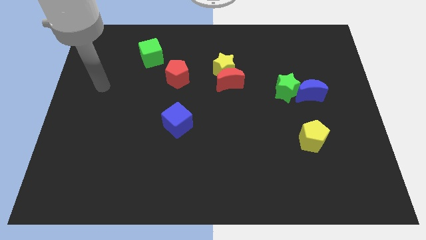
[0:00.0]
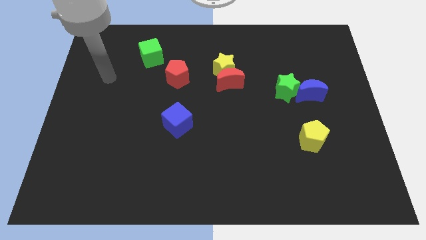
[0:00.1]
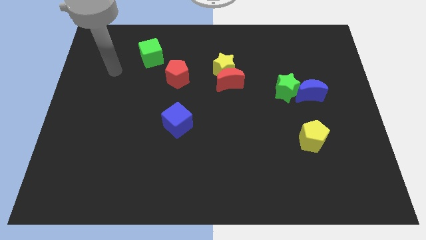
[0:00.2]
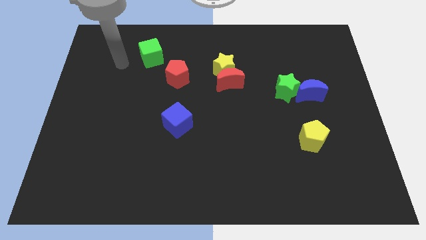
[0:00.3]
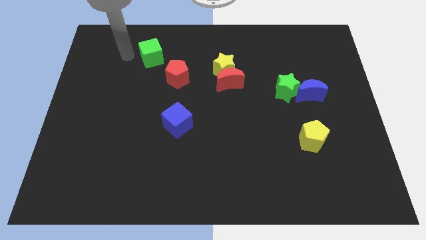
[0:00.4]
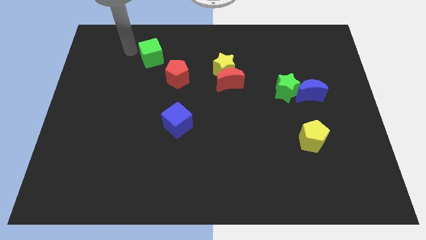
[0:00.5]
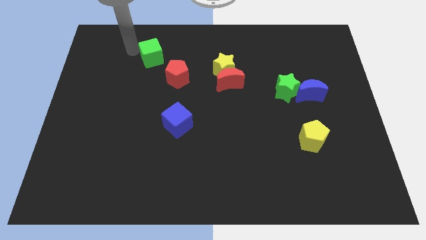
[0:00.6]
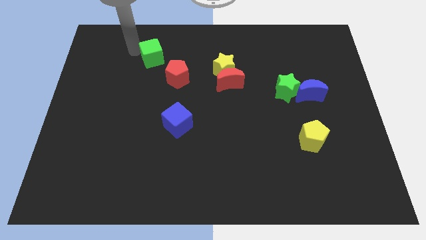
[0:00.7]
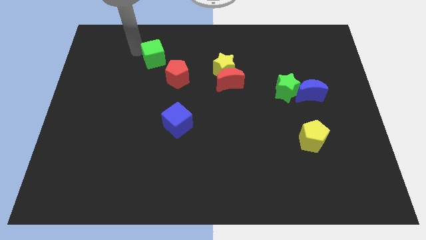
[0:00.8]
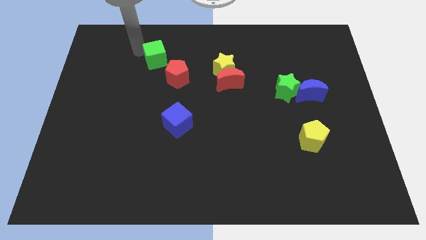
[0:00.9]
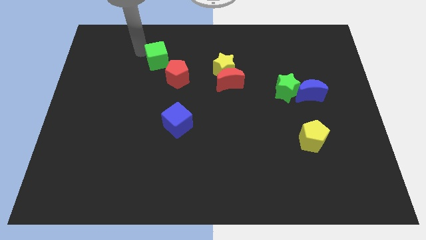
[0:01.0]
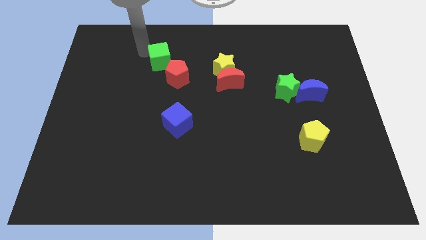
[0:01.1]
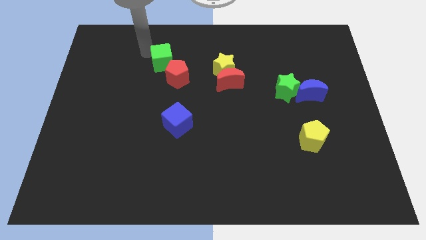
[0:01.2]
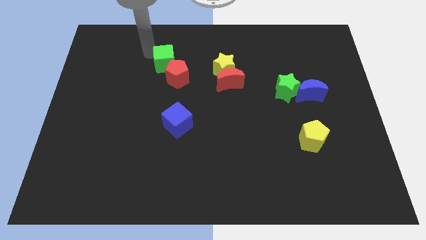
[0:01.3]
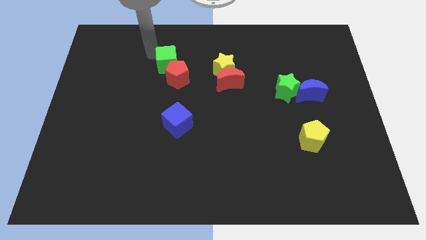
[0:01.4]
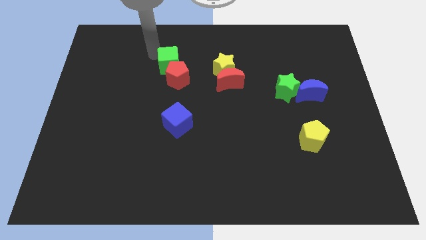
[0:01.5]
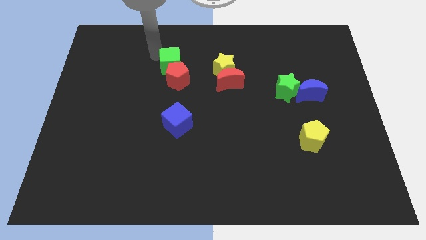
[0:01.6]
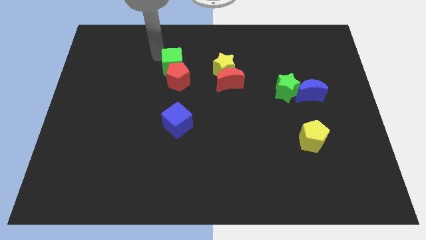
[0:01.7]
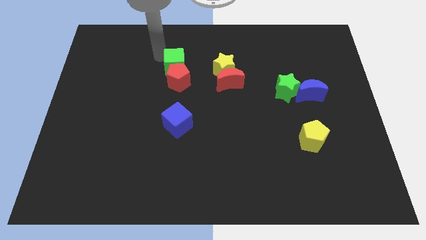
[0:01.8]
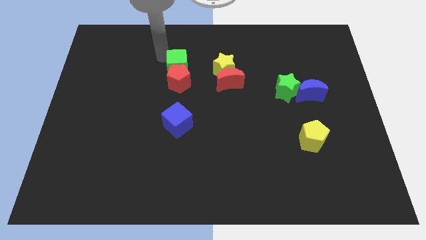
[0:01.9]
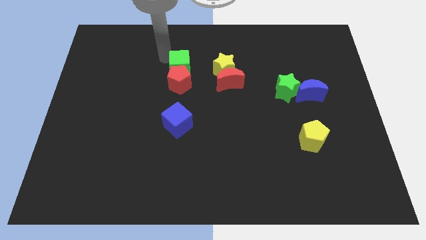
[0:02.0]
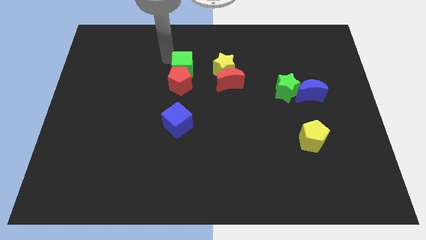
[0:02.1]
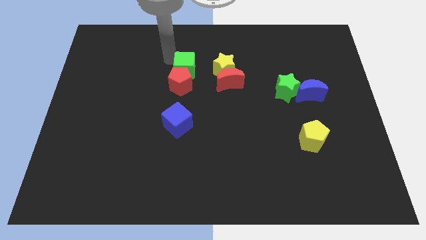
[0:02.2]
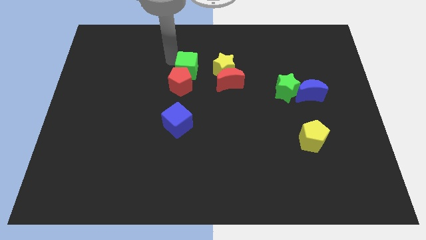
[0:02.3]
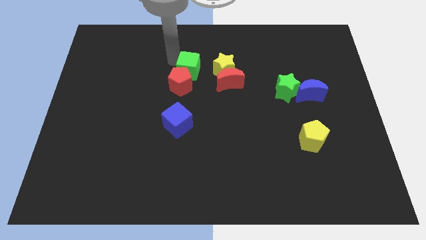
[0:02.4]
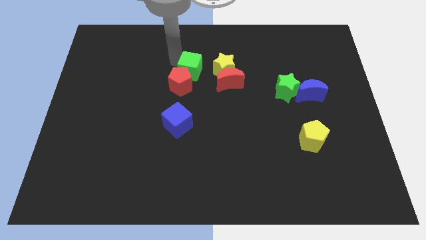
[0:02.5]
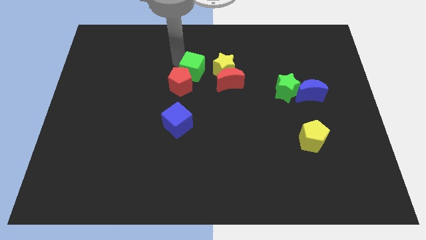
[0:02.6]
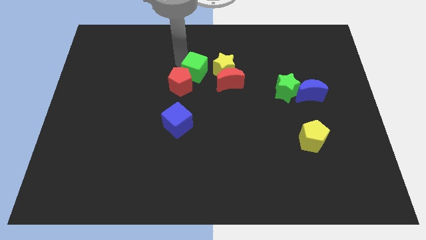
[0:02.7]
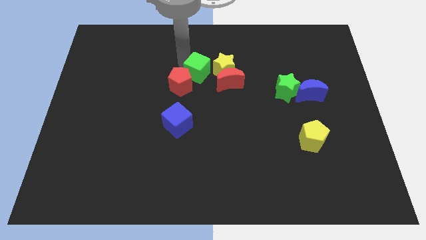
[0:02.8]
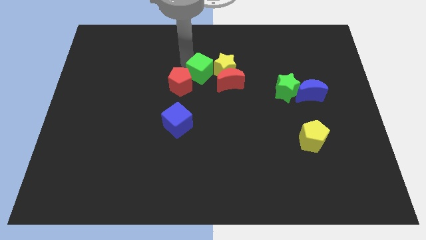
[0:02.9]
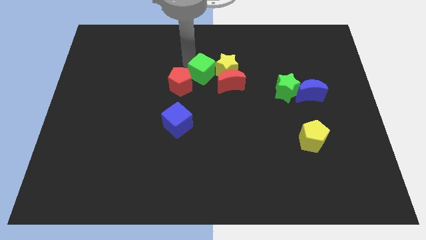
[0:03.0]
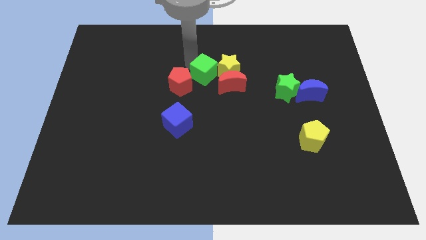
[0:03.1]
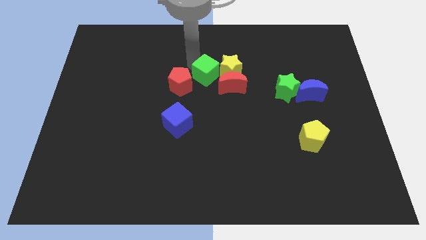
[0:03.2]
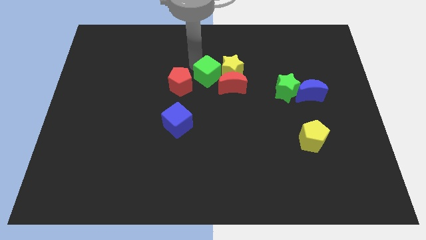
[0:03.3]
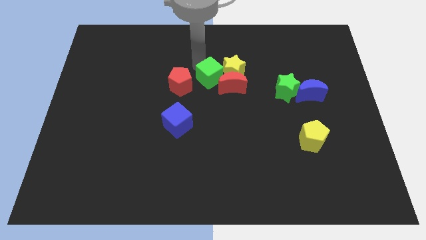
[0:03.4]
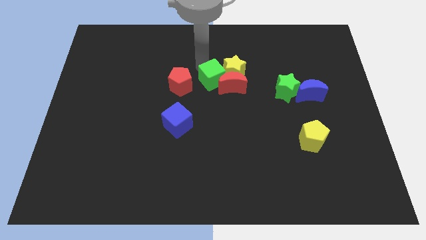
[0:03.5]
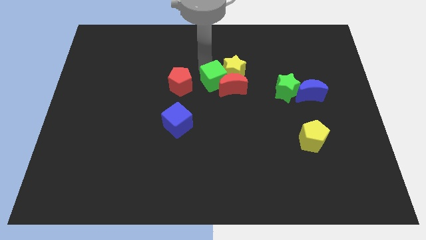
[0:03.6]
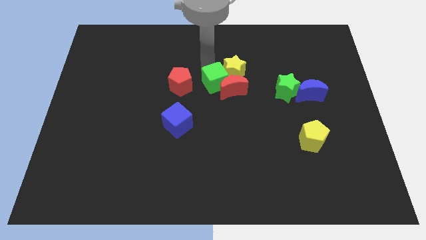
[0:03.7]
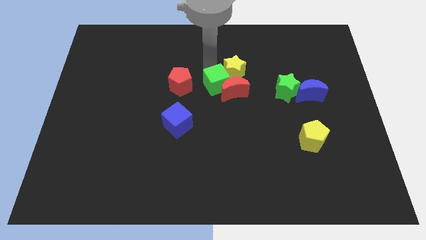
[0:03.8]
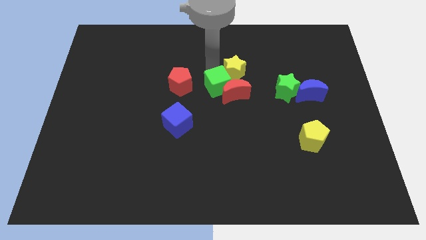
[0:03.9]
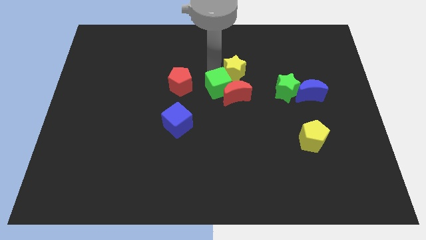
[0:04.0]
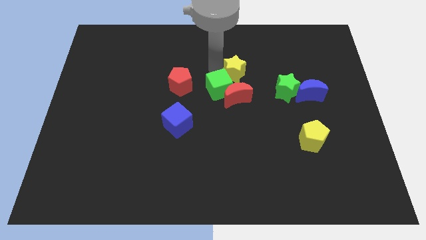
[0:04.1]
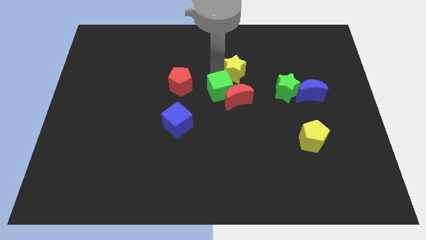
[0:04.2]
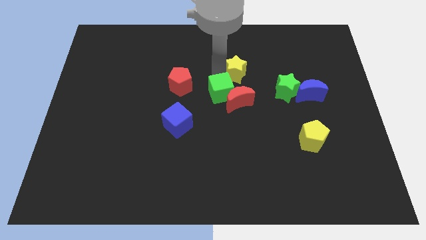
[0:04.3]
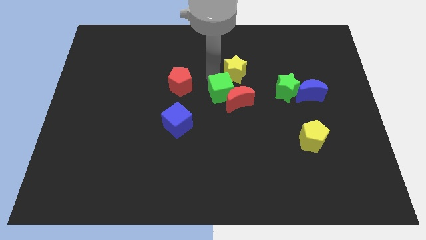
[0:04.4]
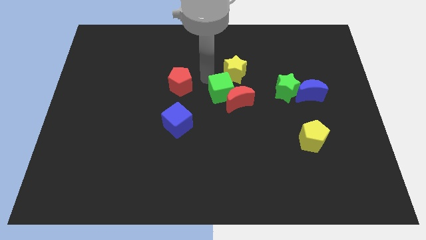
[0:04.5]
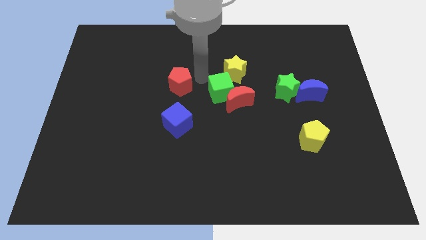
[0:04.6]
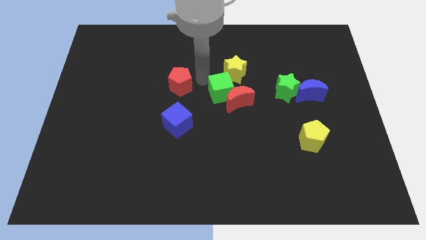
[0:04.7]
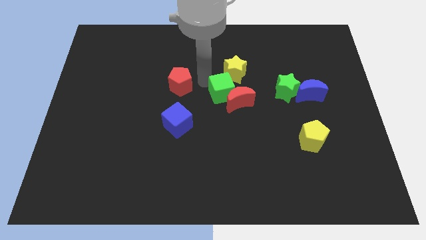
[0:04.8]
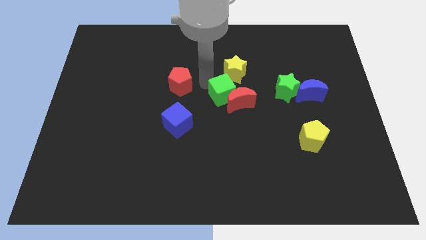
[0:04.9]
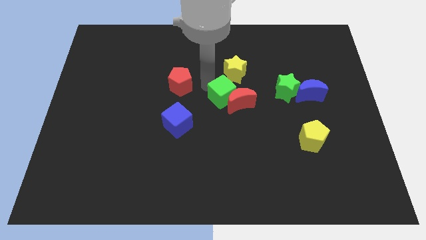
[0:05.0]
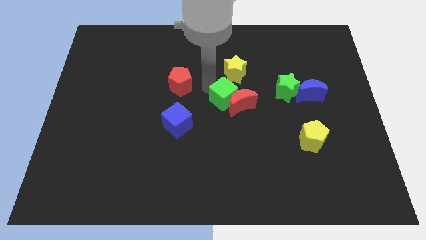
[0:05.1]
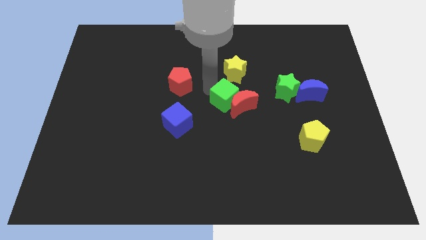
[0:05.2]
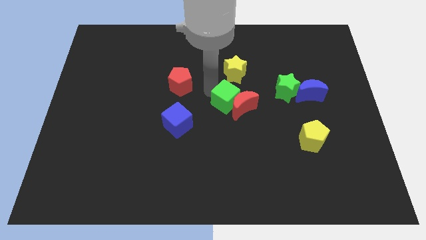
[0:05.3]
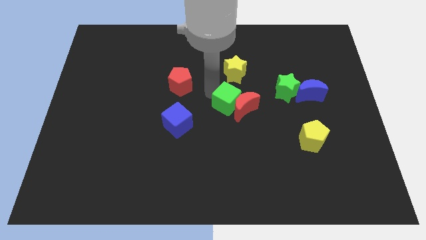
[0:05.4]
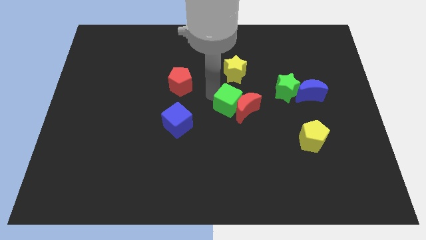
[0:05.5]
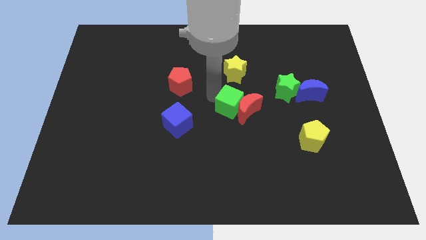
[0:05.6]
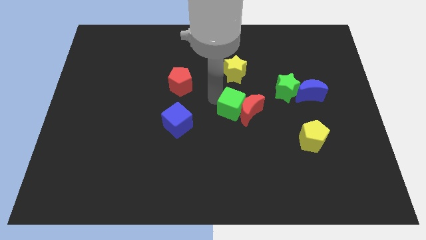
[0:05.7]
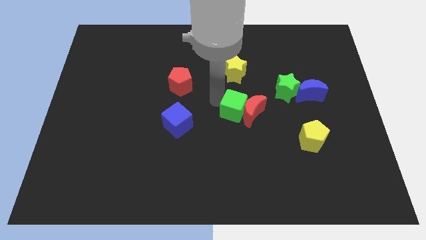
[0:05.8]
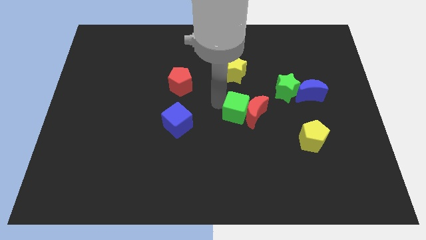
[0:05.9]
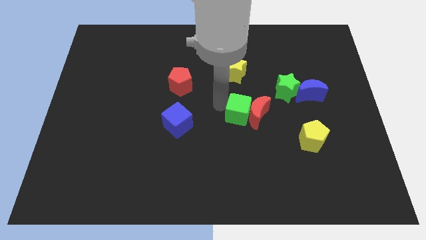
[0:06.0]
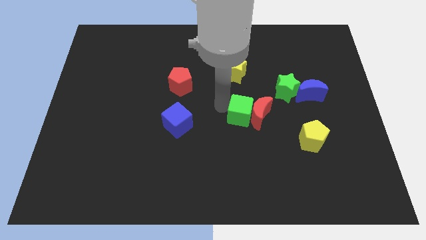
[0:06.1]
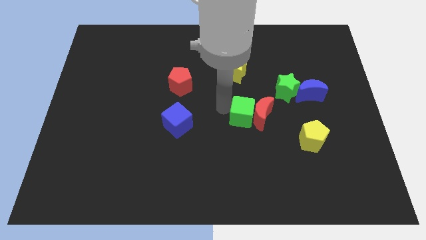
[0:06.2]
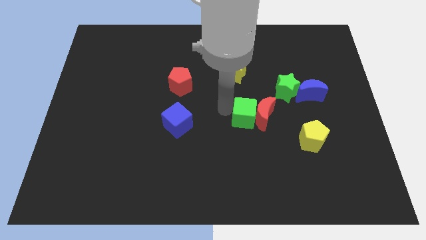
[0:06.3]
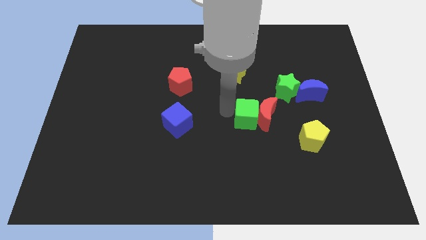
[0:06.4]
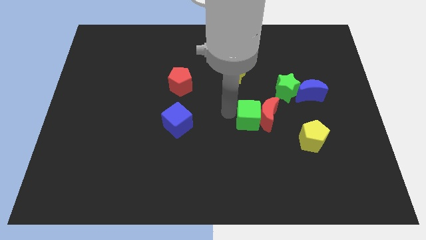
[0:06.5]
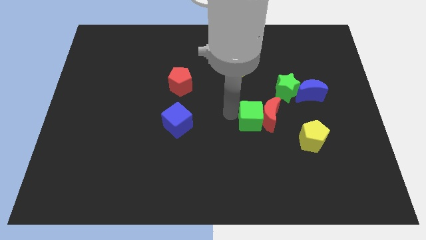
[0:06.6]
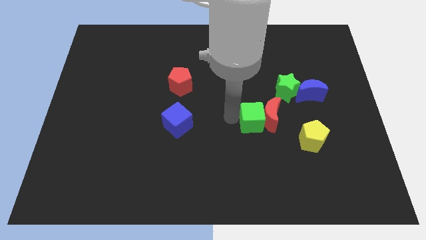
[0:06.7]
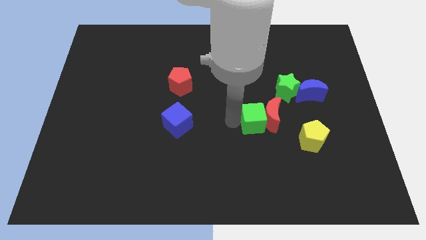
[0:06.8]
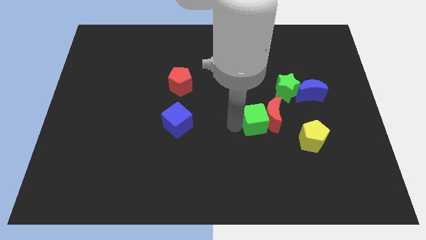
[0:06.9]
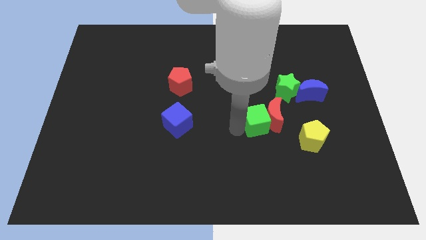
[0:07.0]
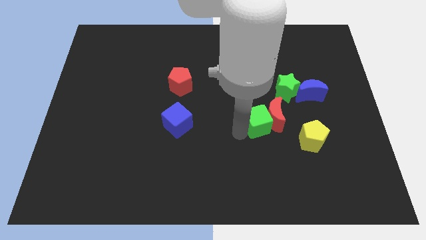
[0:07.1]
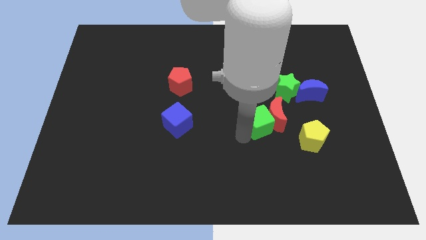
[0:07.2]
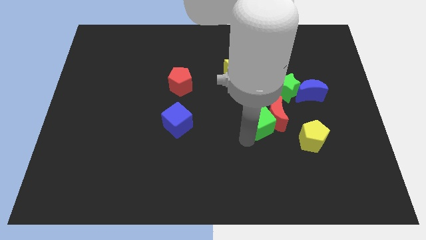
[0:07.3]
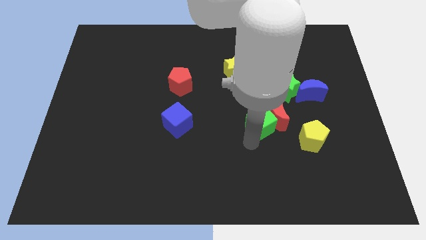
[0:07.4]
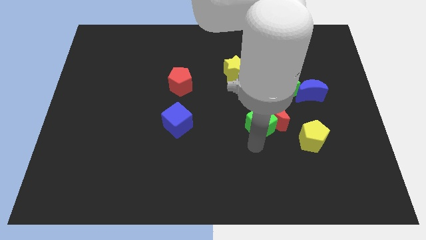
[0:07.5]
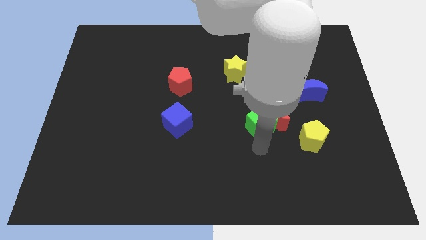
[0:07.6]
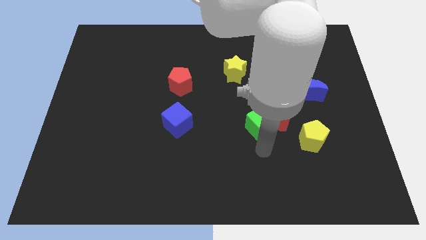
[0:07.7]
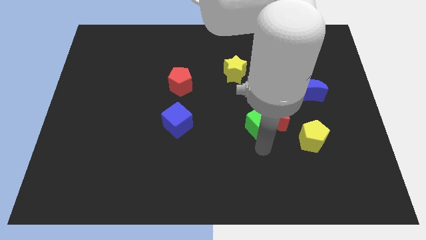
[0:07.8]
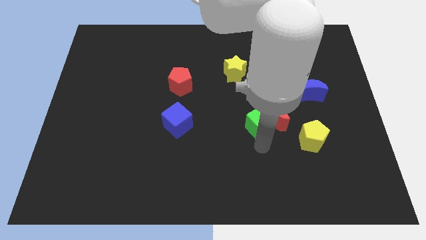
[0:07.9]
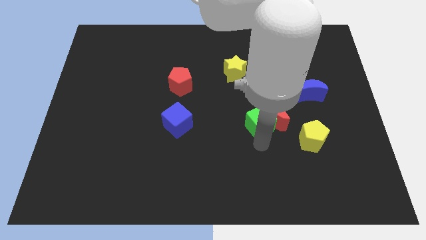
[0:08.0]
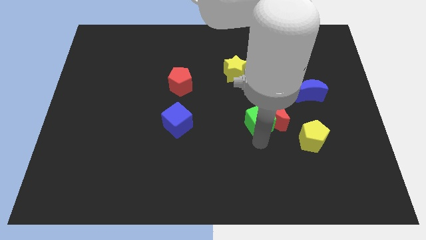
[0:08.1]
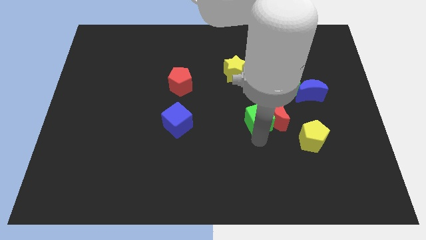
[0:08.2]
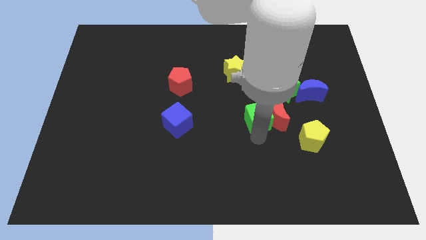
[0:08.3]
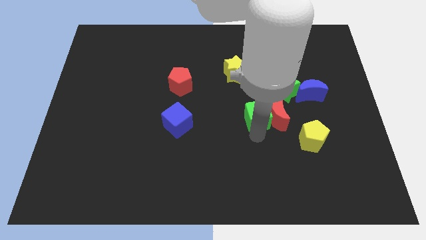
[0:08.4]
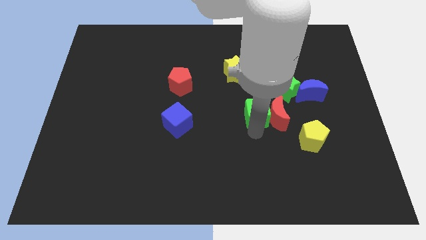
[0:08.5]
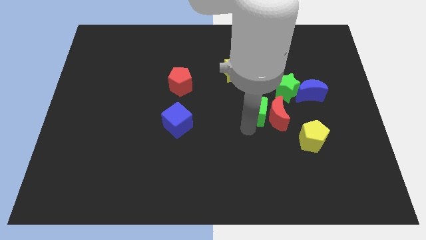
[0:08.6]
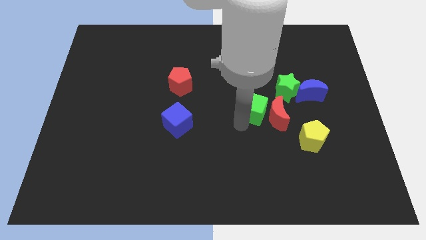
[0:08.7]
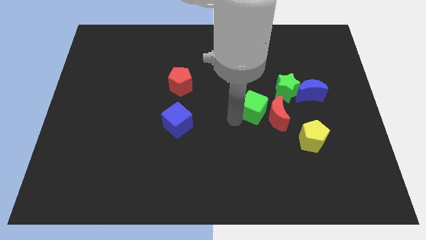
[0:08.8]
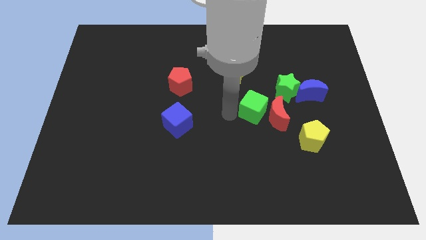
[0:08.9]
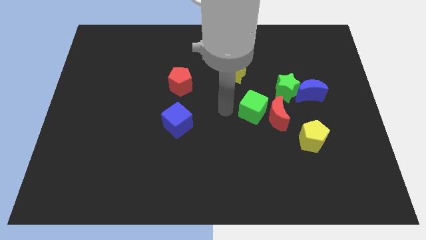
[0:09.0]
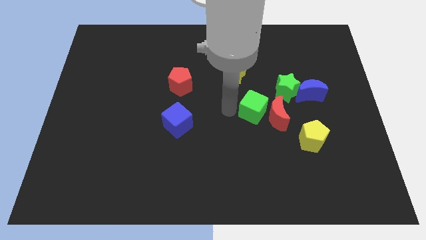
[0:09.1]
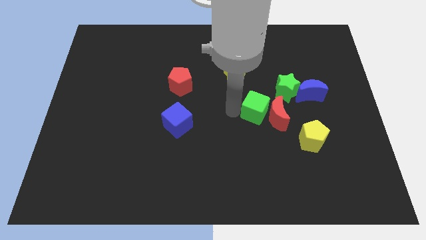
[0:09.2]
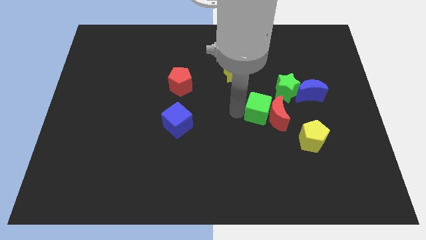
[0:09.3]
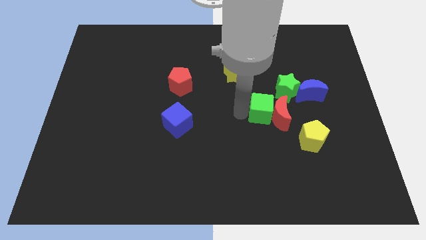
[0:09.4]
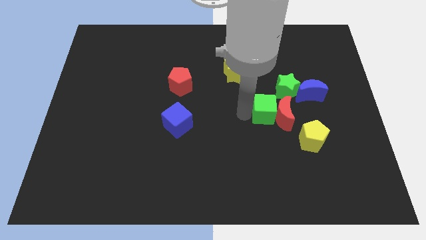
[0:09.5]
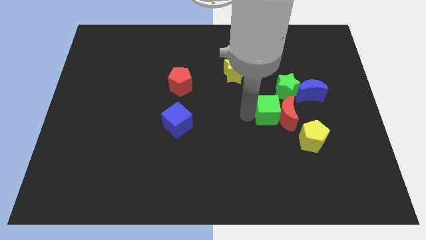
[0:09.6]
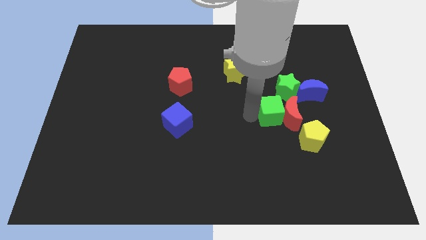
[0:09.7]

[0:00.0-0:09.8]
put the green cube to the bottom left side of the blue moon
